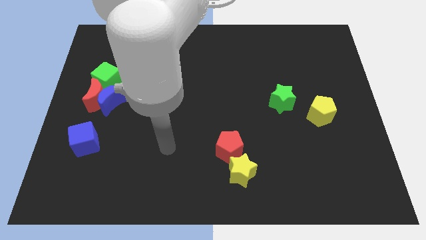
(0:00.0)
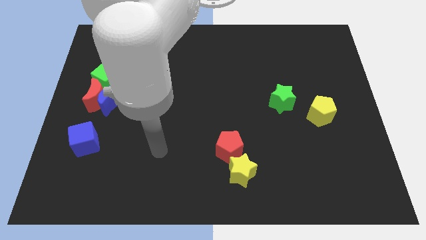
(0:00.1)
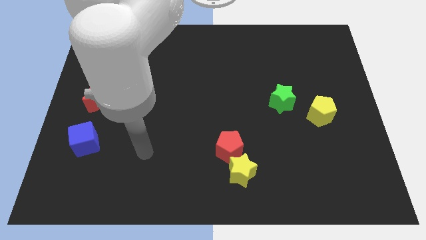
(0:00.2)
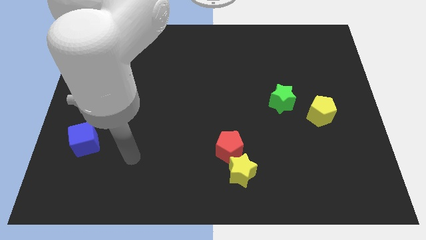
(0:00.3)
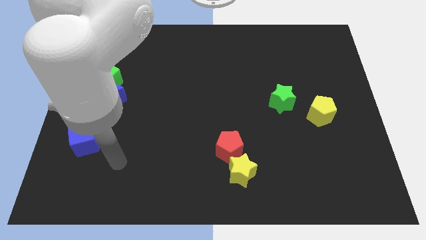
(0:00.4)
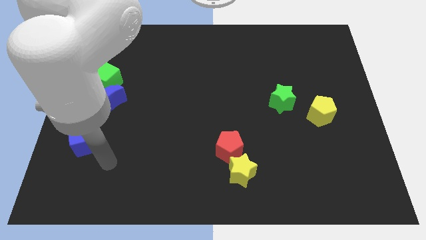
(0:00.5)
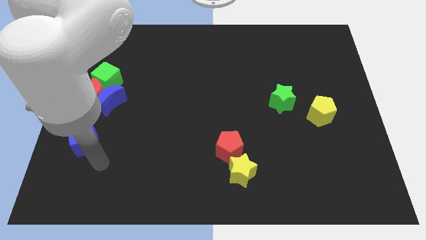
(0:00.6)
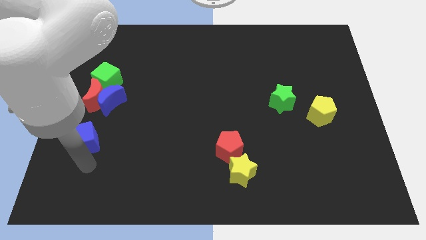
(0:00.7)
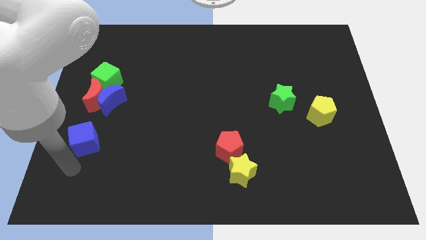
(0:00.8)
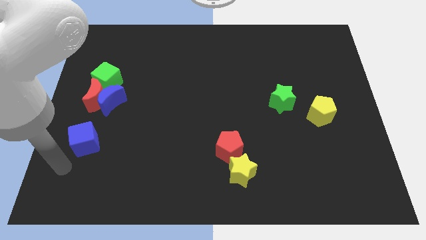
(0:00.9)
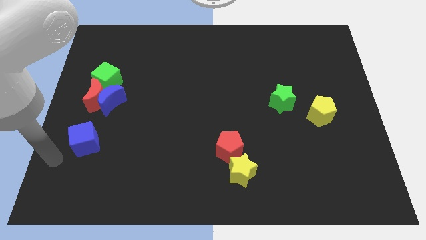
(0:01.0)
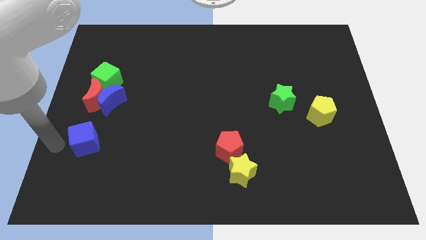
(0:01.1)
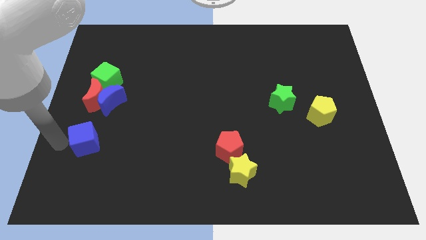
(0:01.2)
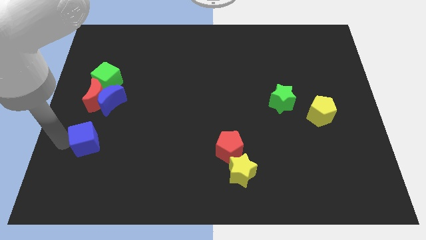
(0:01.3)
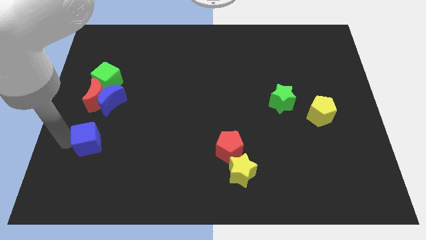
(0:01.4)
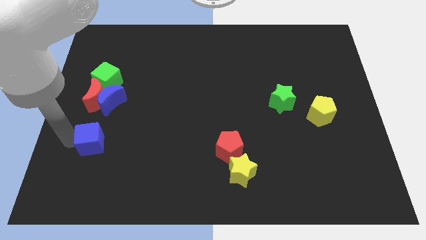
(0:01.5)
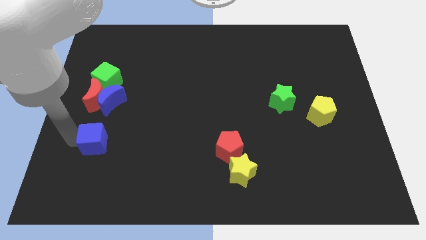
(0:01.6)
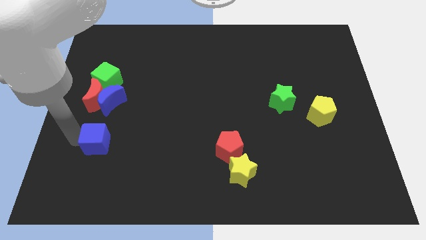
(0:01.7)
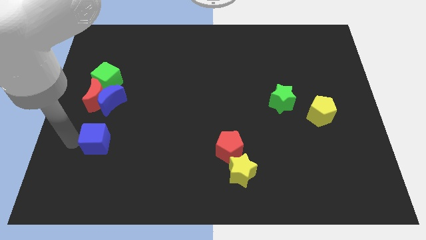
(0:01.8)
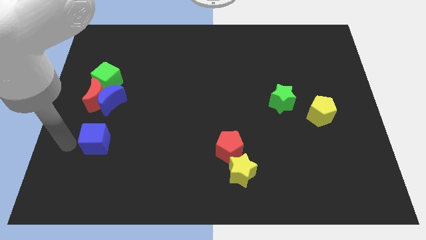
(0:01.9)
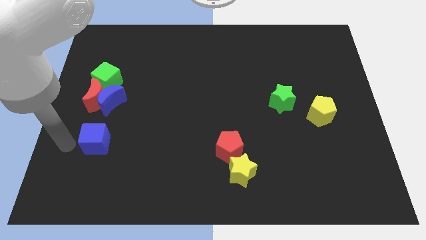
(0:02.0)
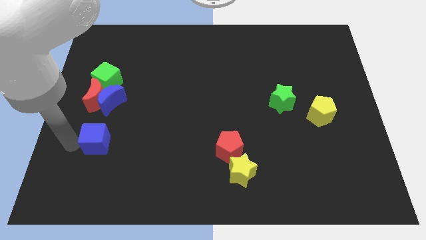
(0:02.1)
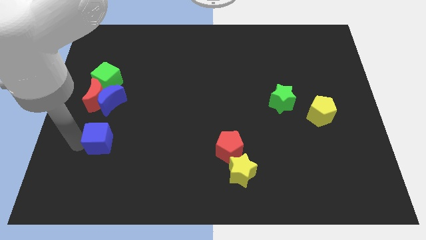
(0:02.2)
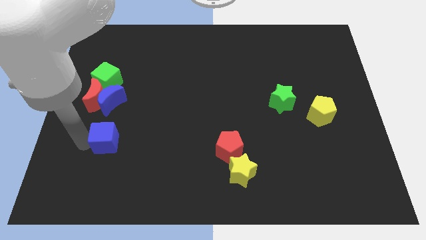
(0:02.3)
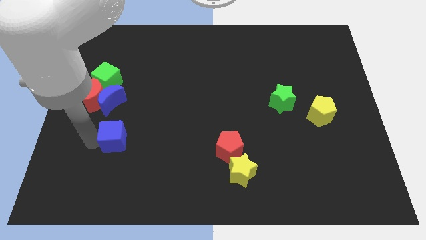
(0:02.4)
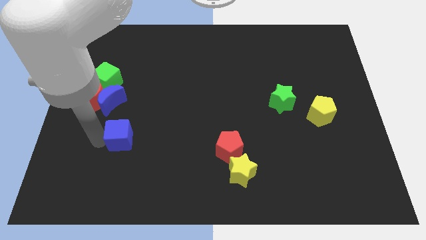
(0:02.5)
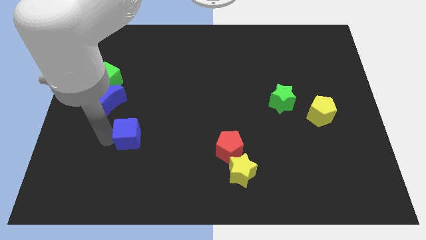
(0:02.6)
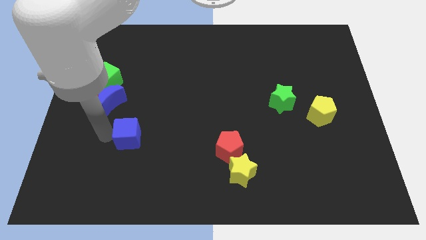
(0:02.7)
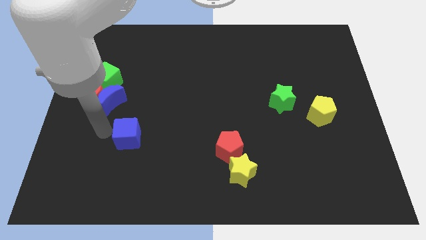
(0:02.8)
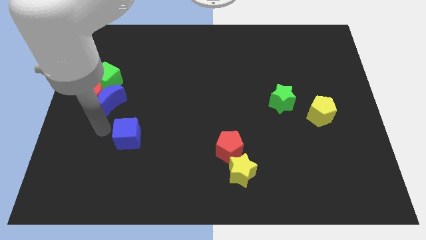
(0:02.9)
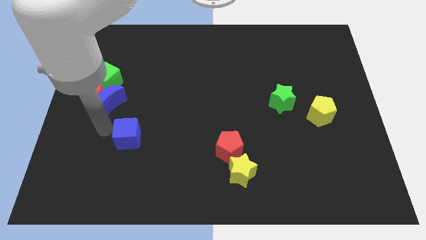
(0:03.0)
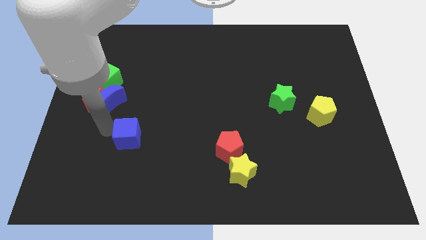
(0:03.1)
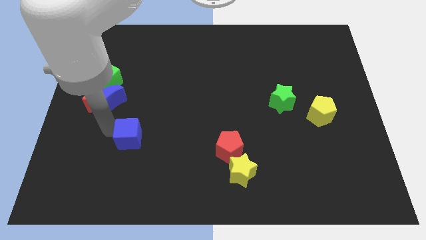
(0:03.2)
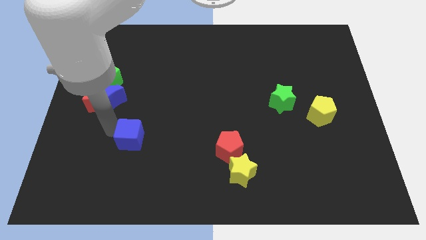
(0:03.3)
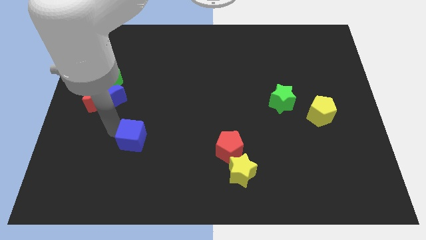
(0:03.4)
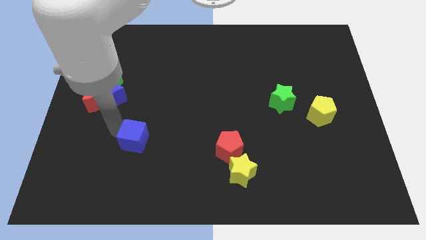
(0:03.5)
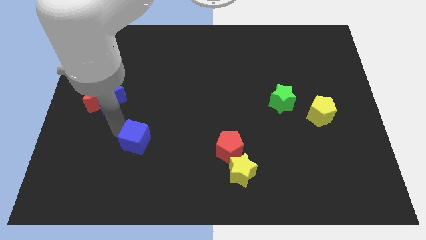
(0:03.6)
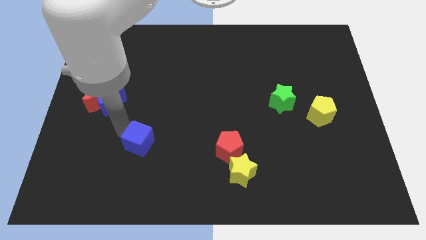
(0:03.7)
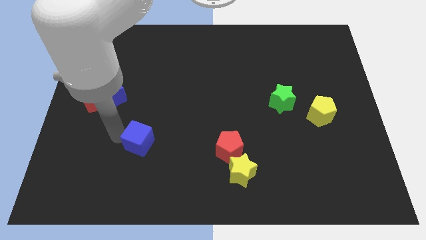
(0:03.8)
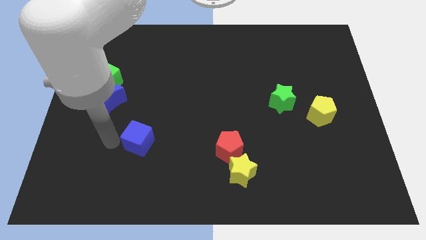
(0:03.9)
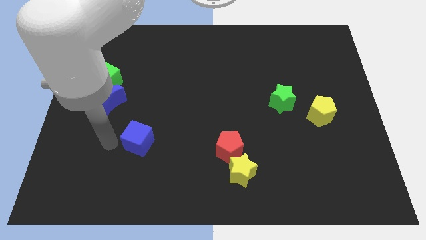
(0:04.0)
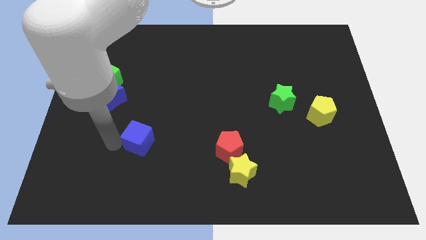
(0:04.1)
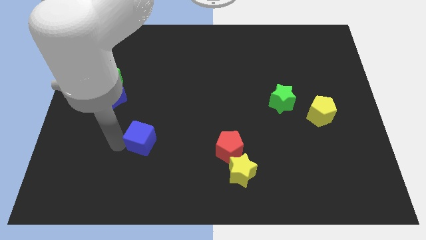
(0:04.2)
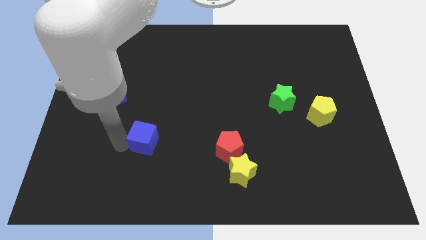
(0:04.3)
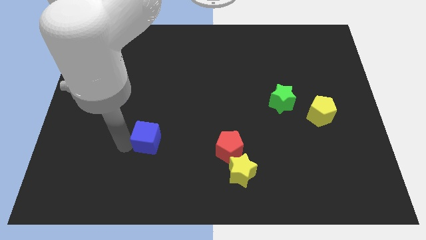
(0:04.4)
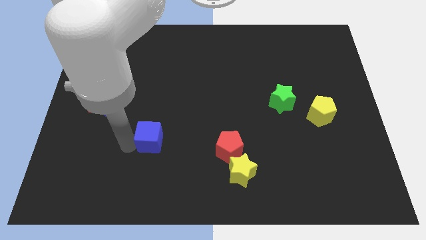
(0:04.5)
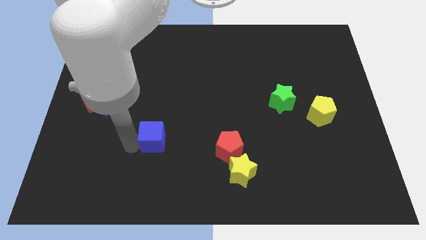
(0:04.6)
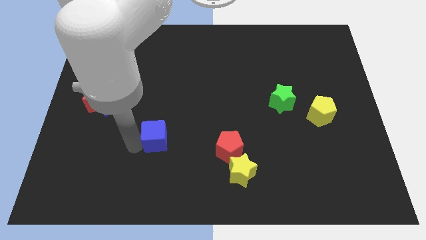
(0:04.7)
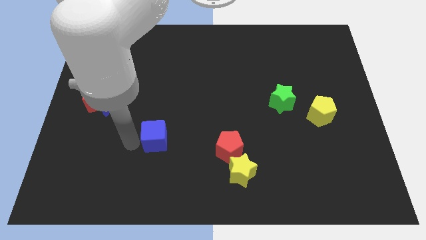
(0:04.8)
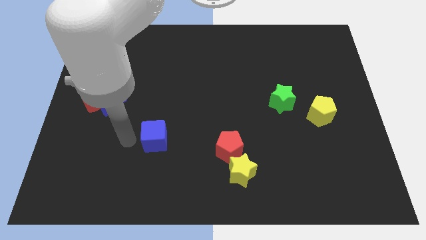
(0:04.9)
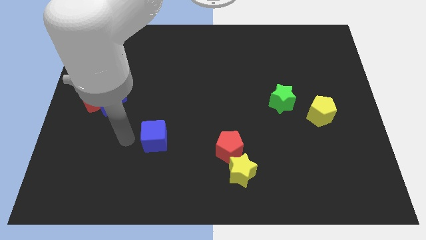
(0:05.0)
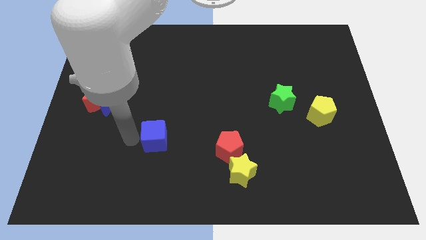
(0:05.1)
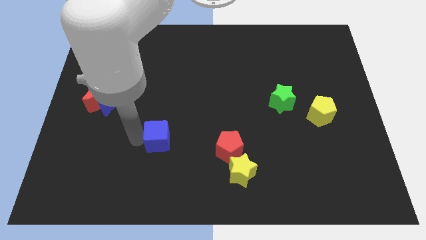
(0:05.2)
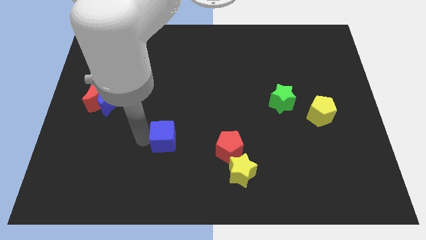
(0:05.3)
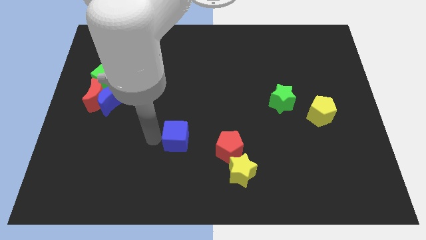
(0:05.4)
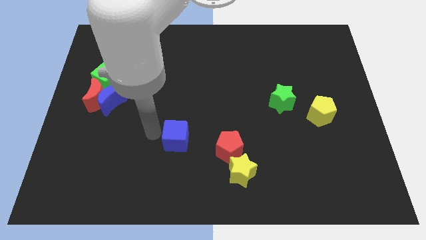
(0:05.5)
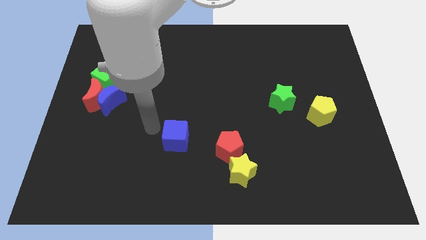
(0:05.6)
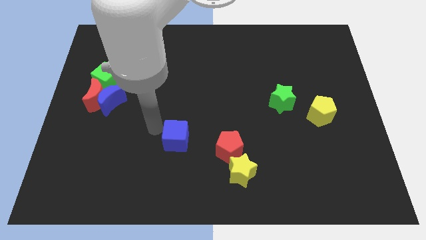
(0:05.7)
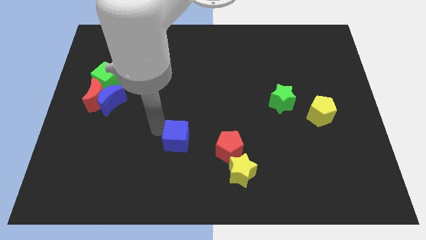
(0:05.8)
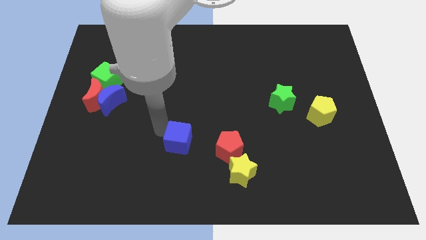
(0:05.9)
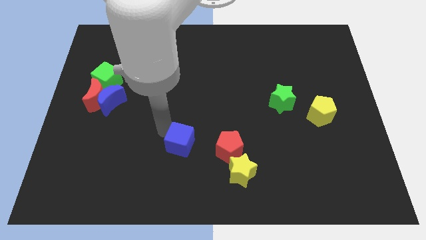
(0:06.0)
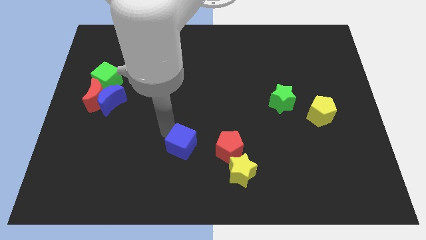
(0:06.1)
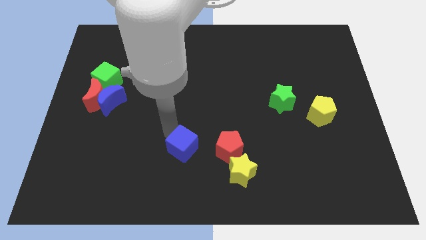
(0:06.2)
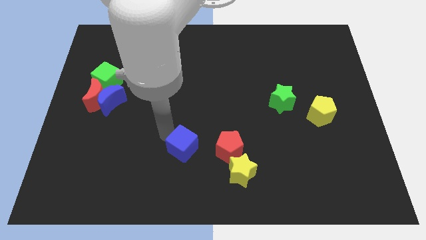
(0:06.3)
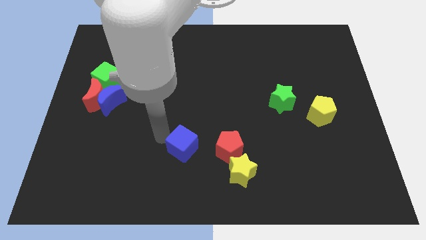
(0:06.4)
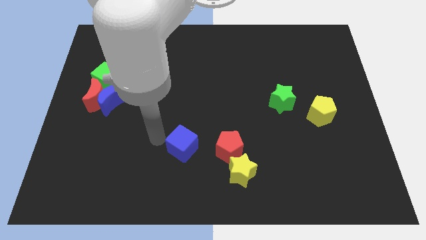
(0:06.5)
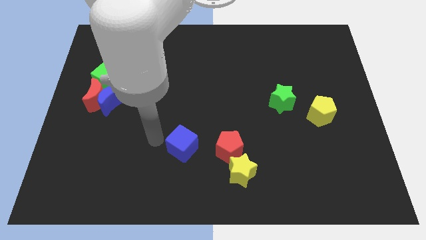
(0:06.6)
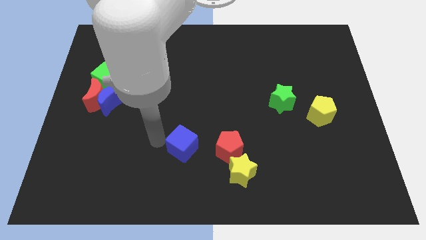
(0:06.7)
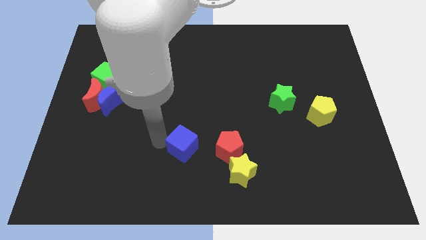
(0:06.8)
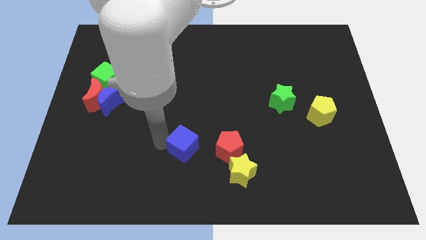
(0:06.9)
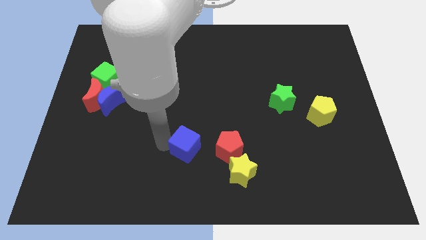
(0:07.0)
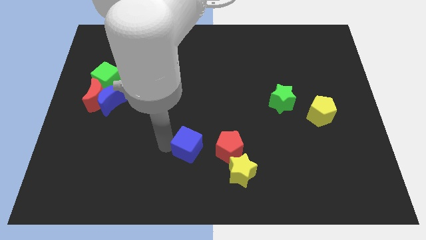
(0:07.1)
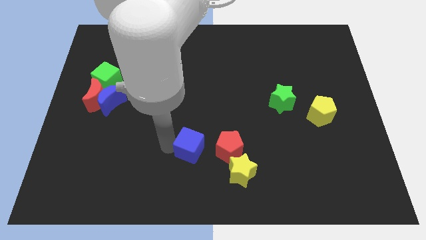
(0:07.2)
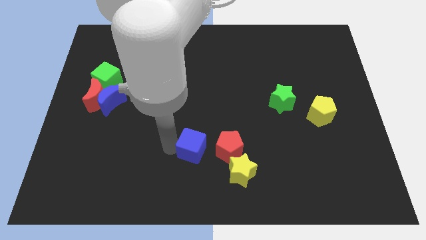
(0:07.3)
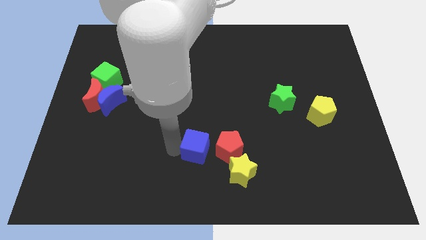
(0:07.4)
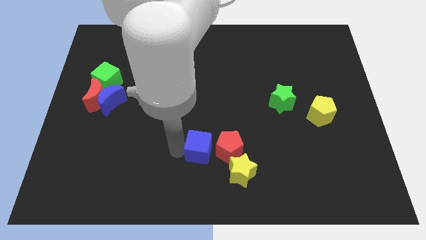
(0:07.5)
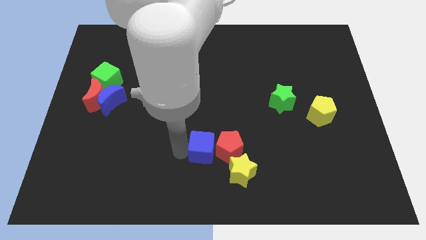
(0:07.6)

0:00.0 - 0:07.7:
put the blue cube next to the red pentagon
